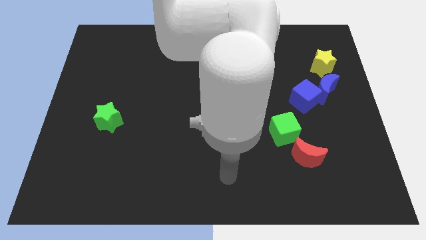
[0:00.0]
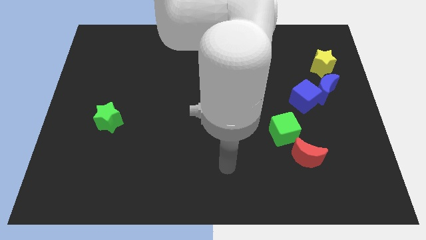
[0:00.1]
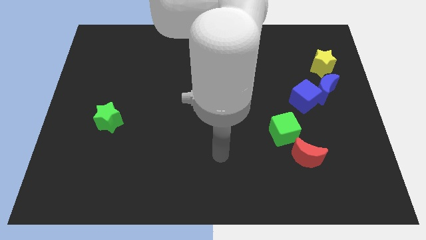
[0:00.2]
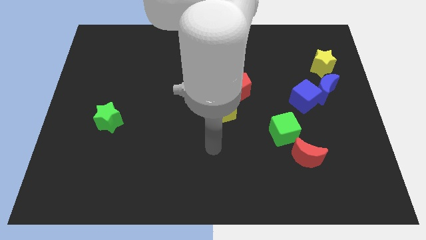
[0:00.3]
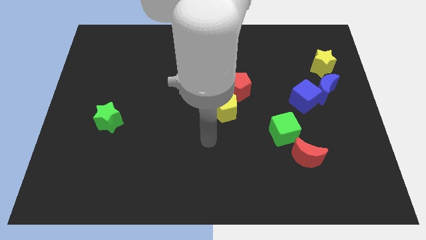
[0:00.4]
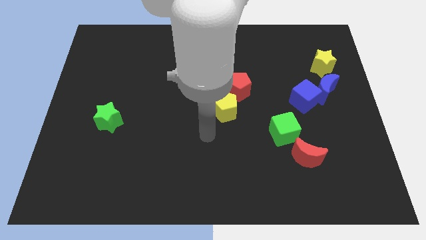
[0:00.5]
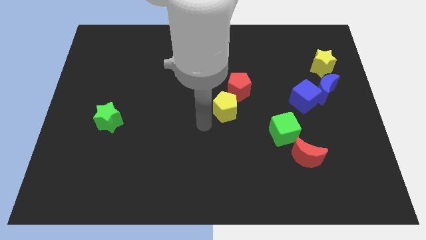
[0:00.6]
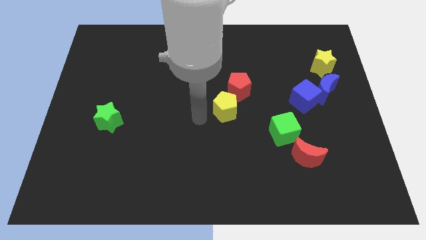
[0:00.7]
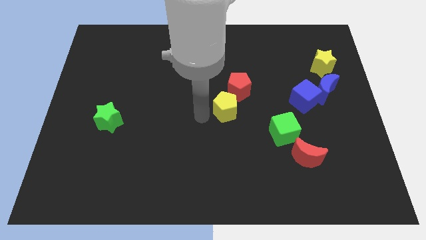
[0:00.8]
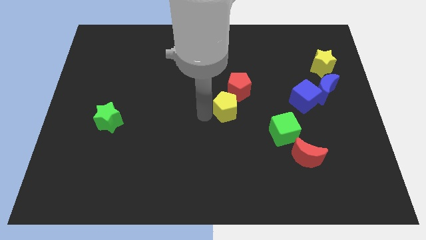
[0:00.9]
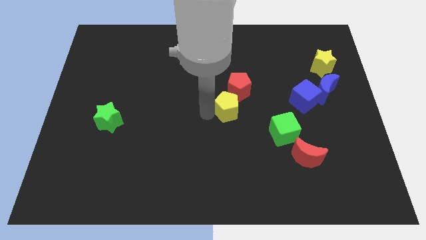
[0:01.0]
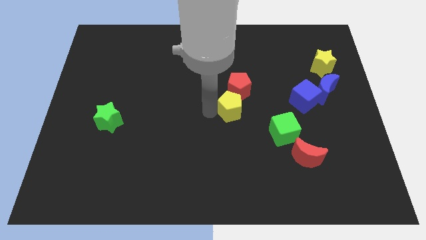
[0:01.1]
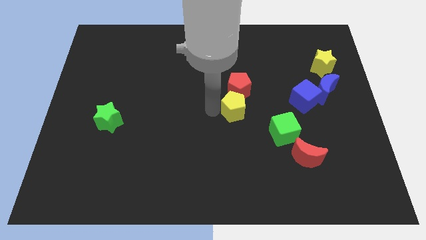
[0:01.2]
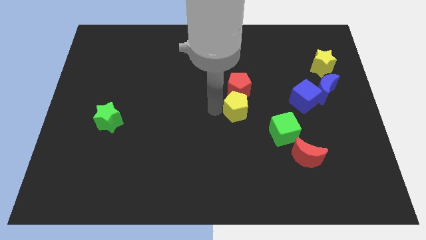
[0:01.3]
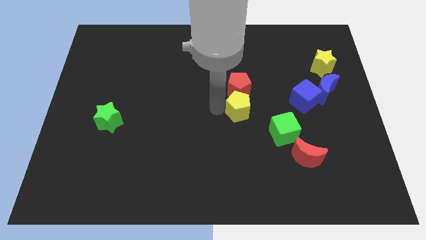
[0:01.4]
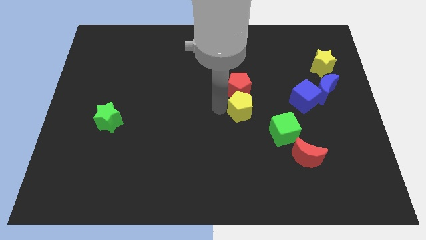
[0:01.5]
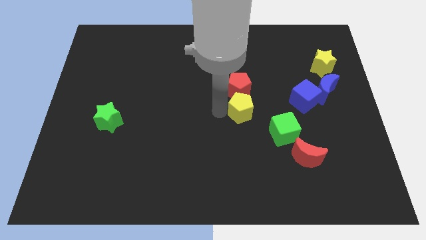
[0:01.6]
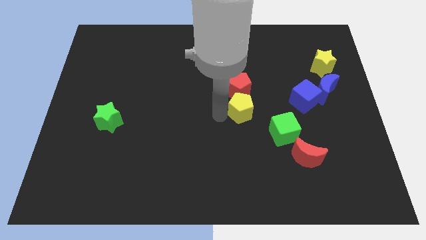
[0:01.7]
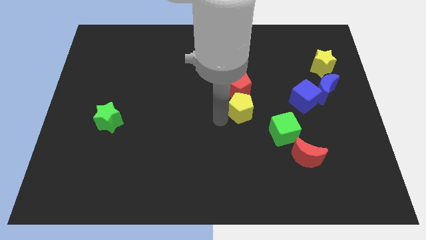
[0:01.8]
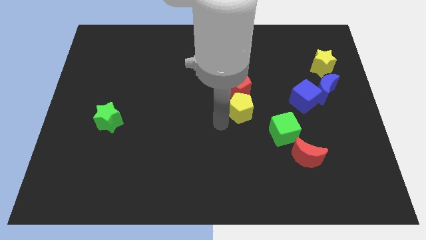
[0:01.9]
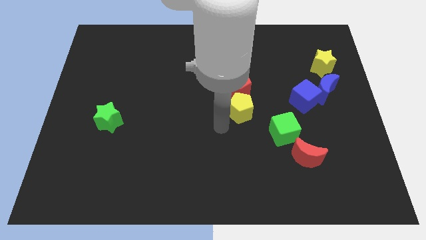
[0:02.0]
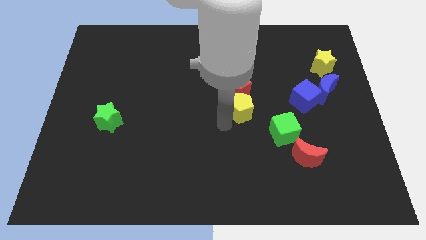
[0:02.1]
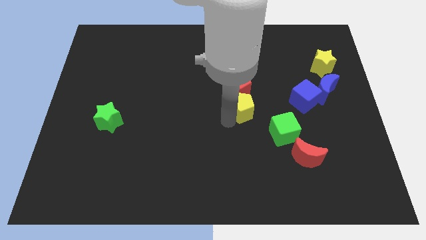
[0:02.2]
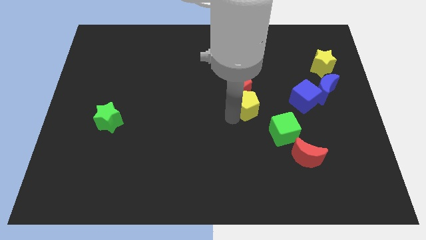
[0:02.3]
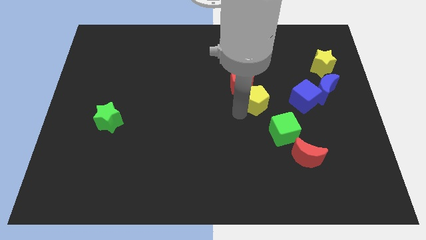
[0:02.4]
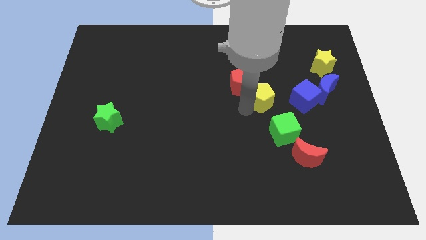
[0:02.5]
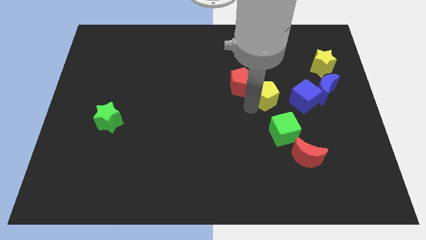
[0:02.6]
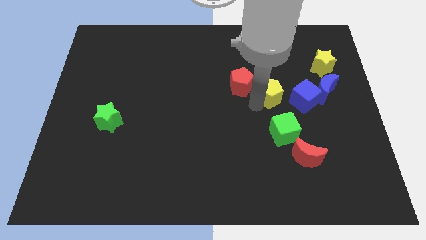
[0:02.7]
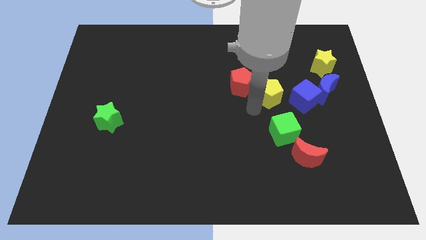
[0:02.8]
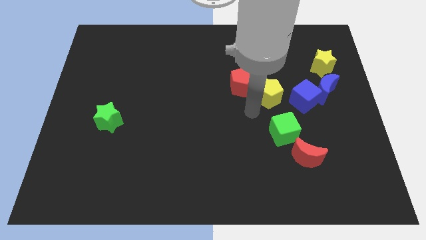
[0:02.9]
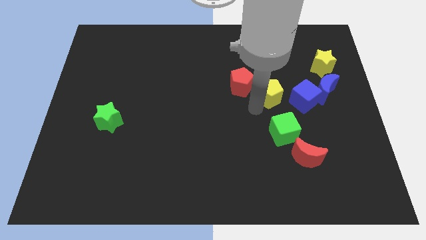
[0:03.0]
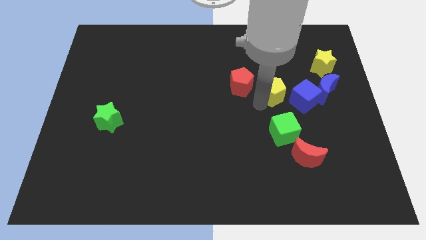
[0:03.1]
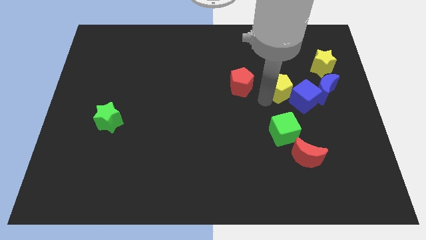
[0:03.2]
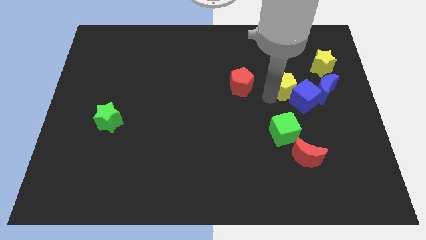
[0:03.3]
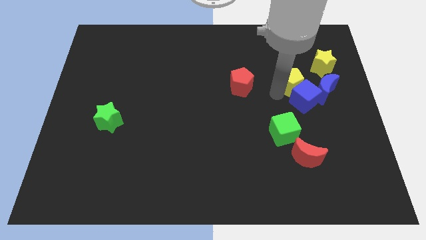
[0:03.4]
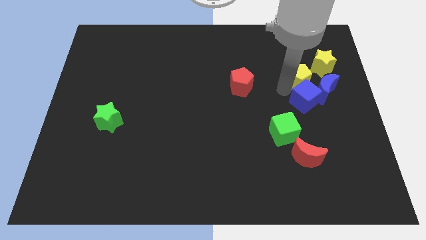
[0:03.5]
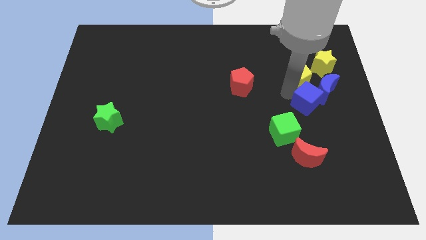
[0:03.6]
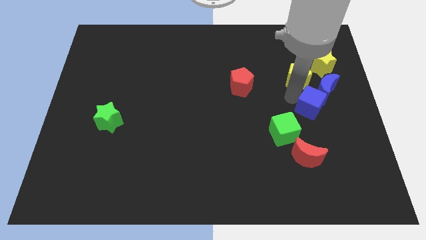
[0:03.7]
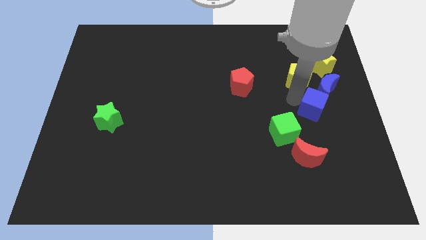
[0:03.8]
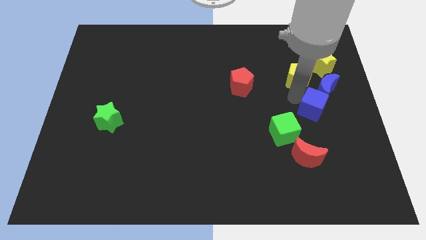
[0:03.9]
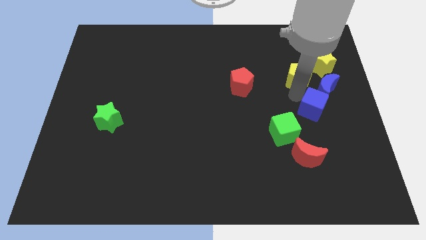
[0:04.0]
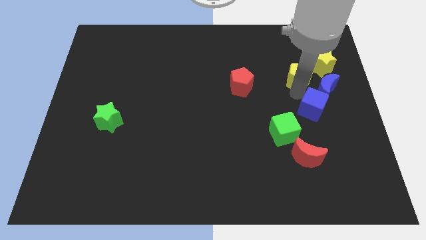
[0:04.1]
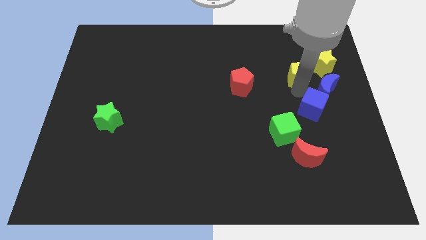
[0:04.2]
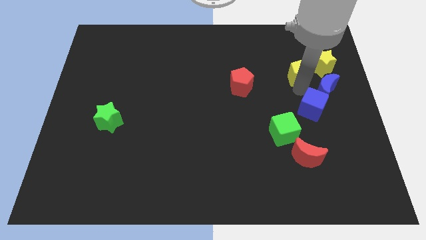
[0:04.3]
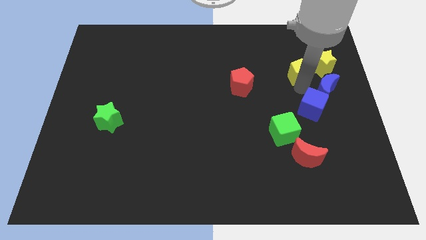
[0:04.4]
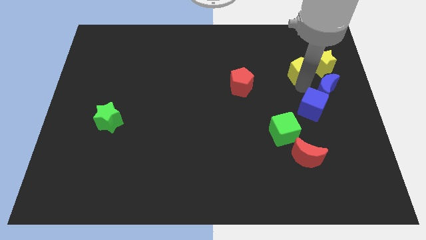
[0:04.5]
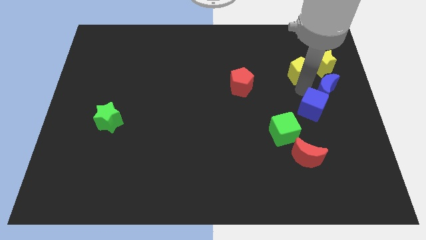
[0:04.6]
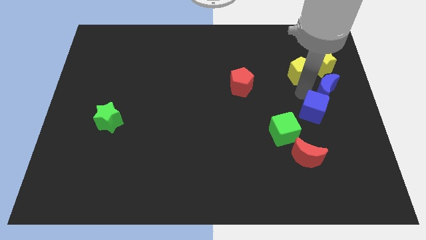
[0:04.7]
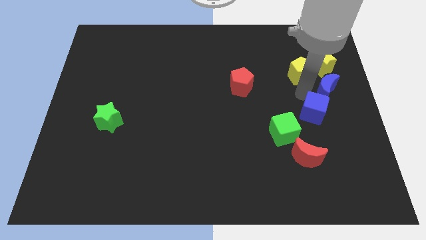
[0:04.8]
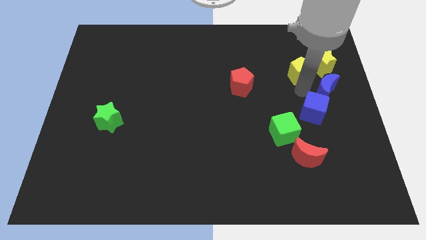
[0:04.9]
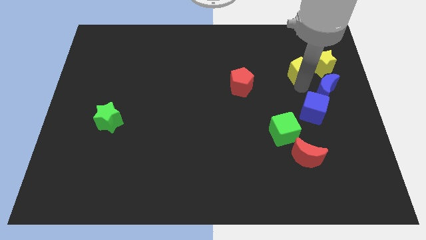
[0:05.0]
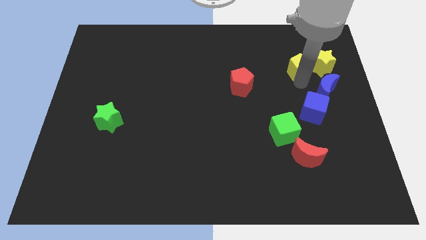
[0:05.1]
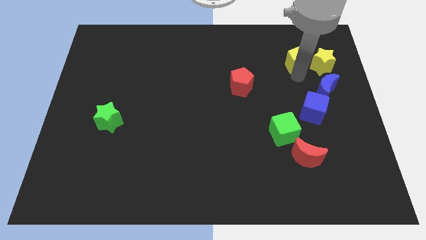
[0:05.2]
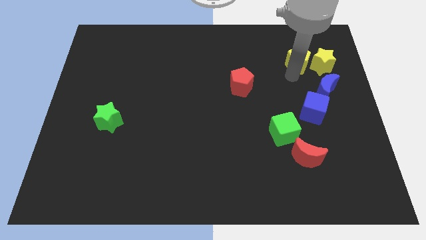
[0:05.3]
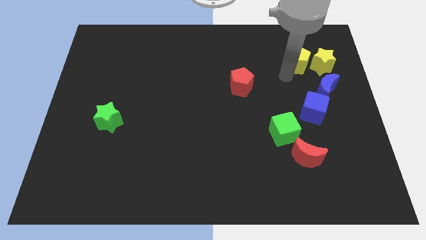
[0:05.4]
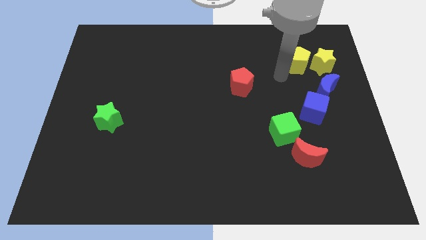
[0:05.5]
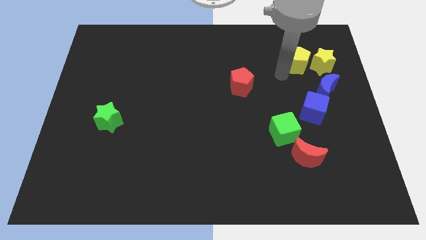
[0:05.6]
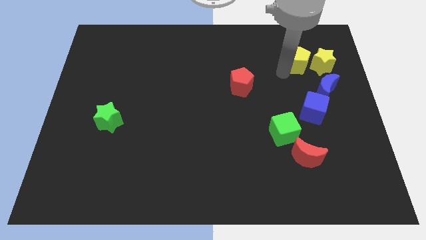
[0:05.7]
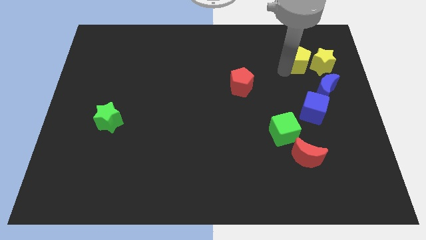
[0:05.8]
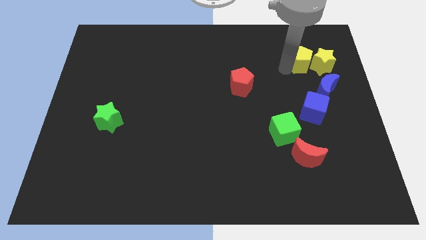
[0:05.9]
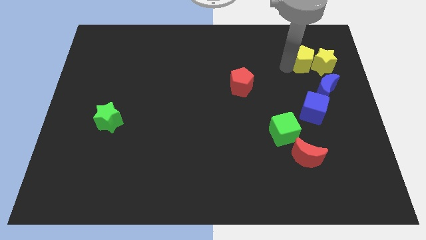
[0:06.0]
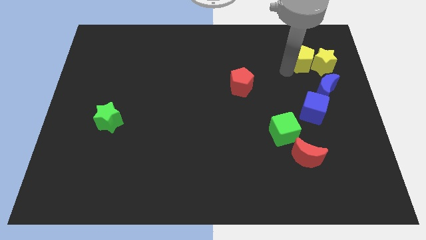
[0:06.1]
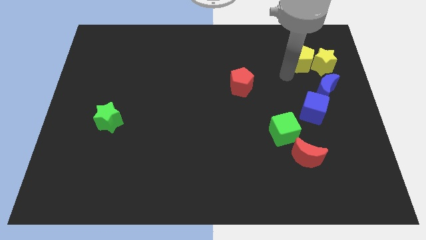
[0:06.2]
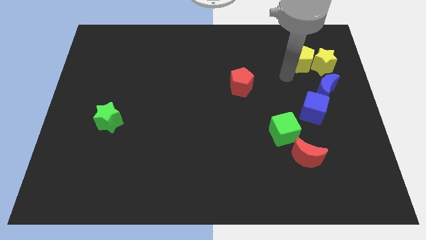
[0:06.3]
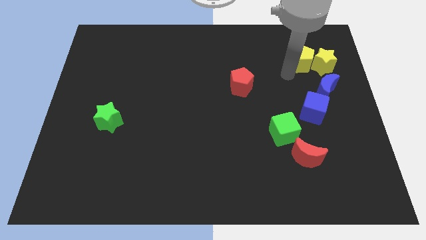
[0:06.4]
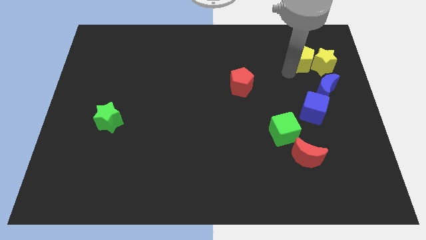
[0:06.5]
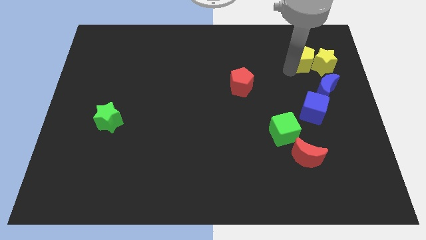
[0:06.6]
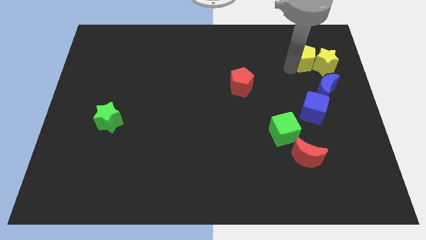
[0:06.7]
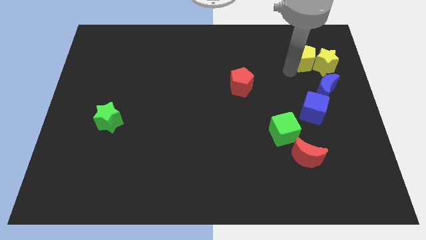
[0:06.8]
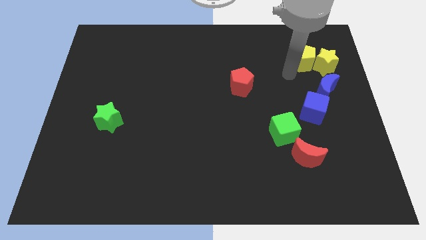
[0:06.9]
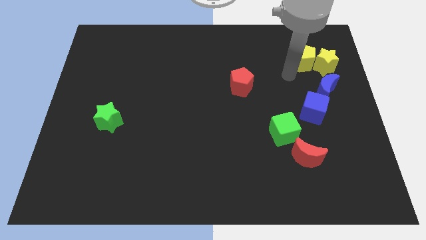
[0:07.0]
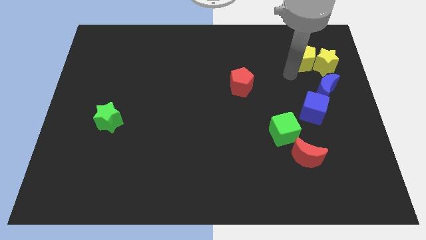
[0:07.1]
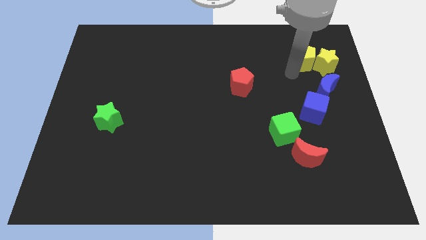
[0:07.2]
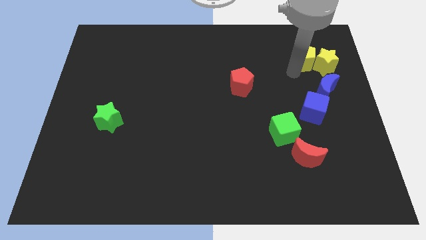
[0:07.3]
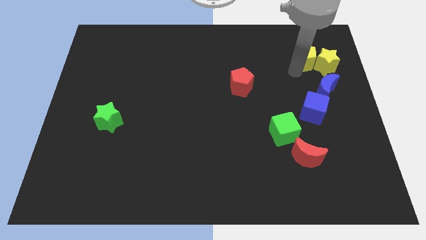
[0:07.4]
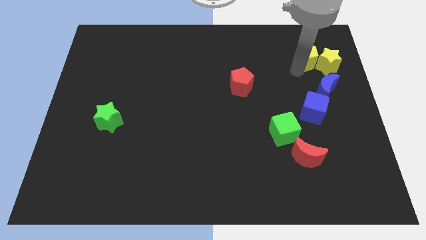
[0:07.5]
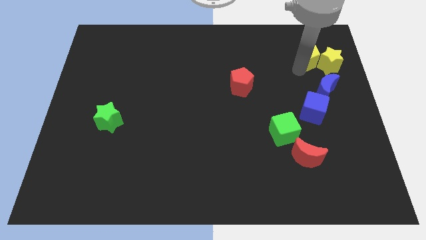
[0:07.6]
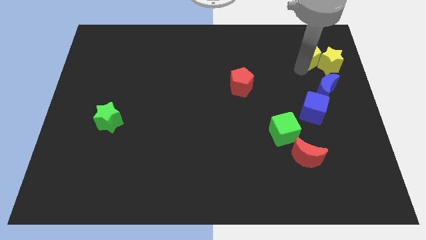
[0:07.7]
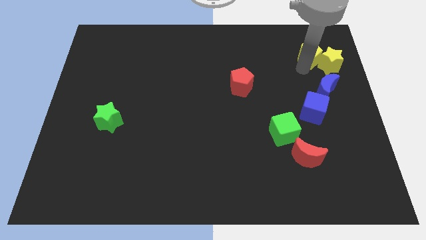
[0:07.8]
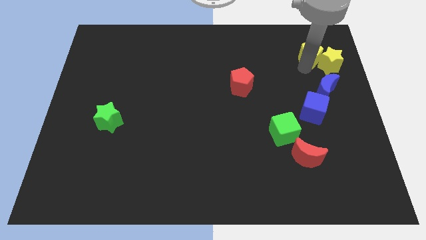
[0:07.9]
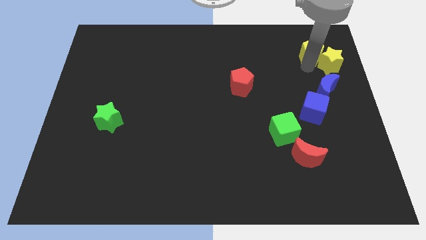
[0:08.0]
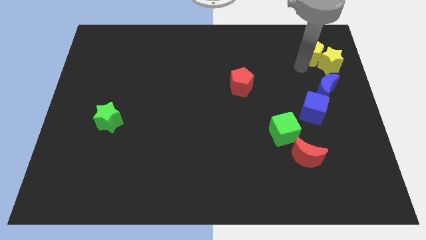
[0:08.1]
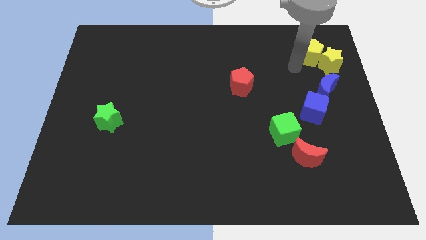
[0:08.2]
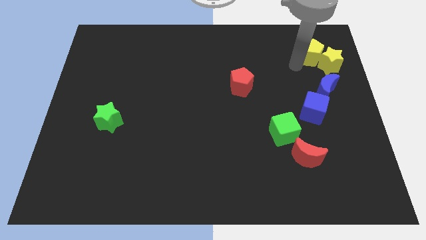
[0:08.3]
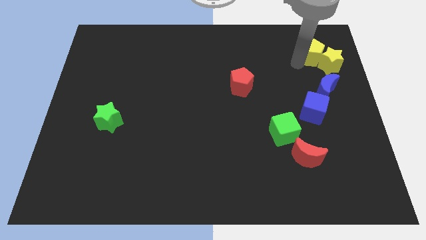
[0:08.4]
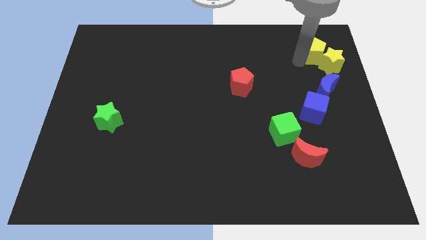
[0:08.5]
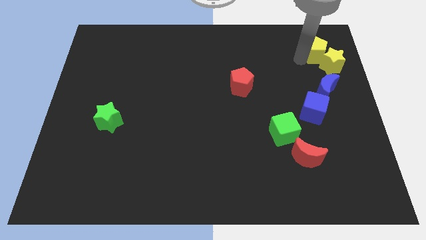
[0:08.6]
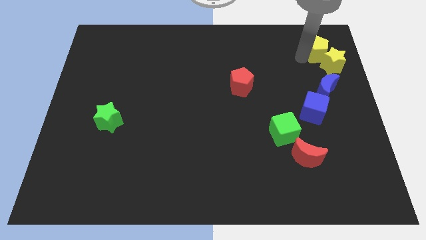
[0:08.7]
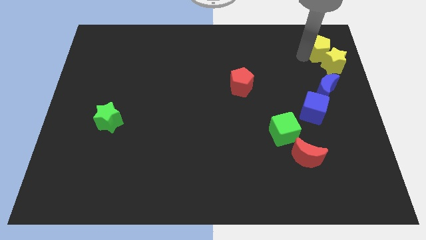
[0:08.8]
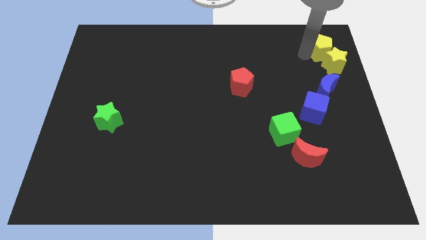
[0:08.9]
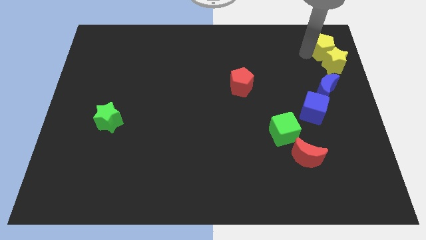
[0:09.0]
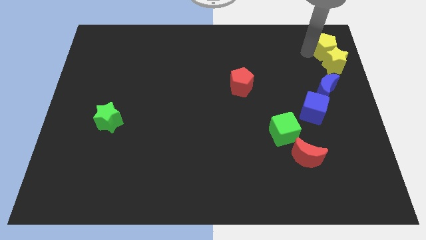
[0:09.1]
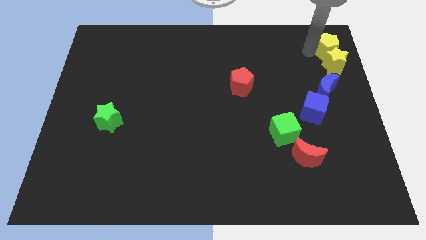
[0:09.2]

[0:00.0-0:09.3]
push the yellow pentagon to the upper right corner
